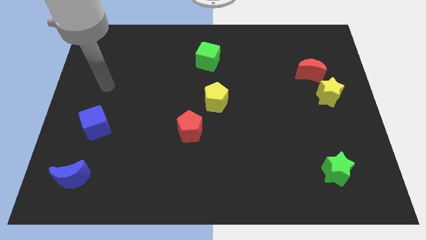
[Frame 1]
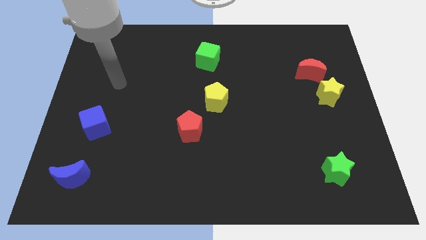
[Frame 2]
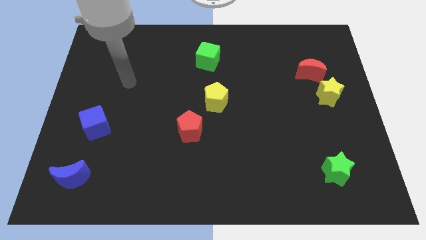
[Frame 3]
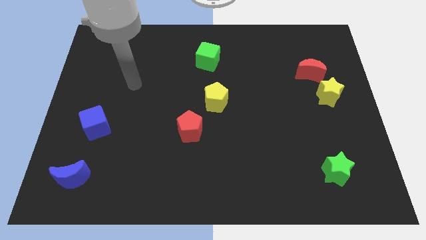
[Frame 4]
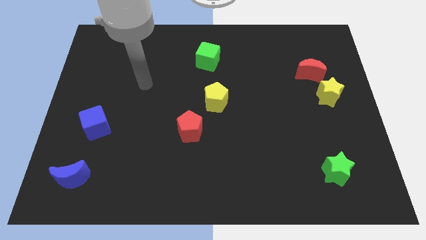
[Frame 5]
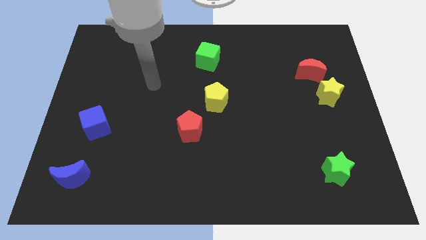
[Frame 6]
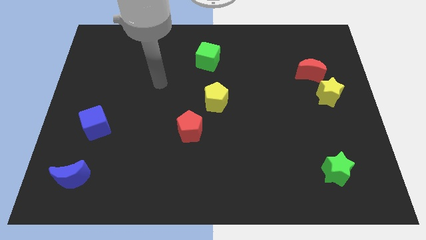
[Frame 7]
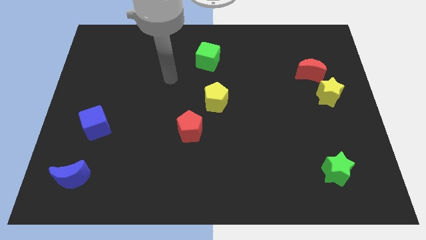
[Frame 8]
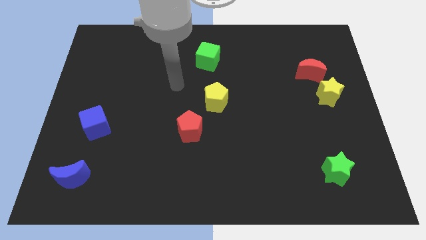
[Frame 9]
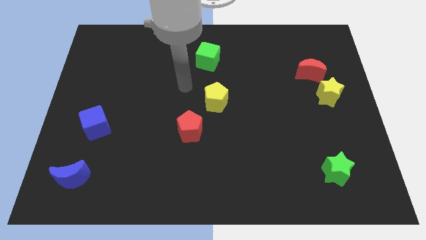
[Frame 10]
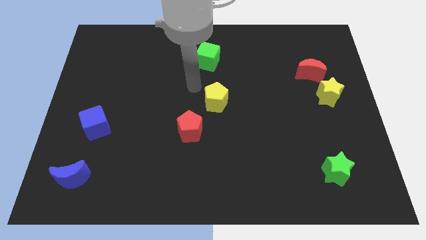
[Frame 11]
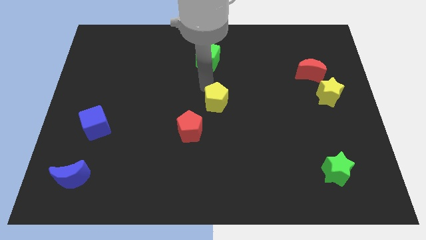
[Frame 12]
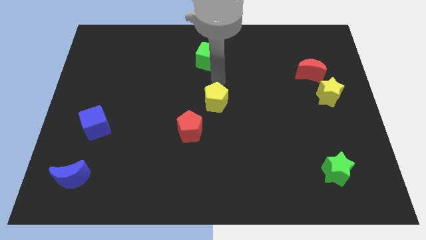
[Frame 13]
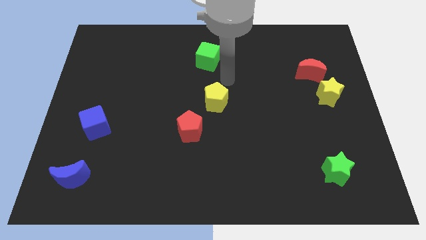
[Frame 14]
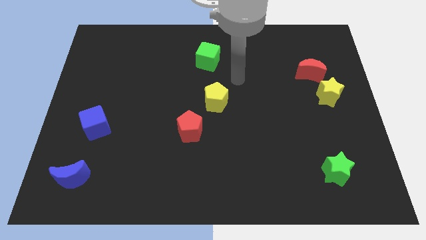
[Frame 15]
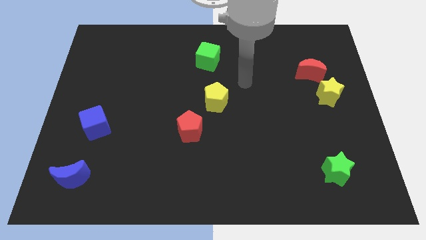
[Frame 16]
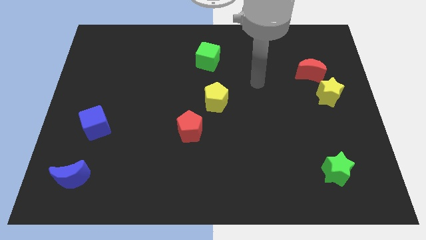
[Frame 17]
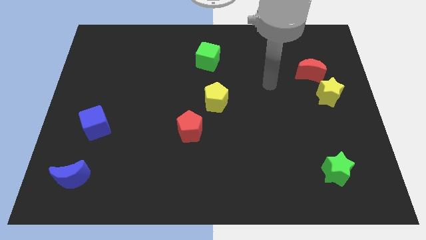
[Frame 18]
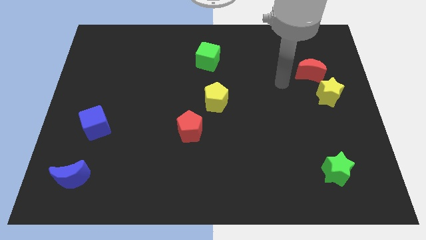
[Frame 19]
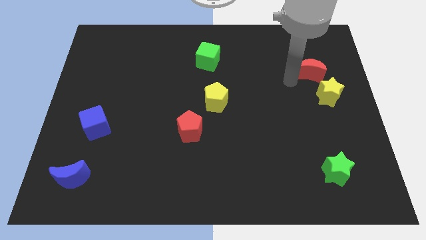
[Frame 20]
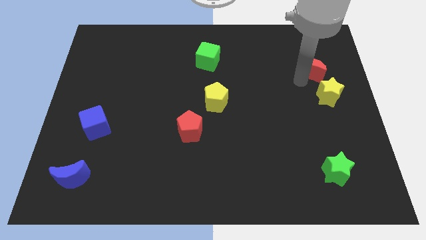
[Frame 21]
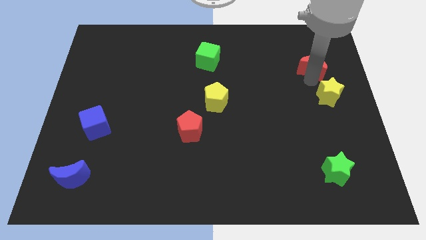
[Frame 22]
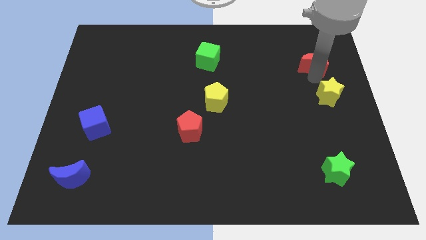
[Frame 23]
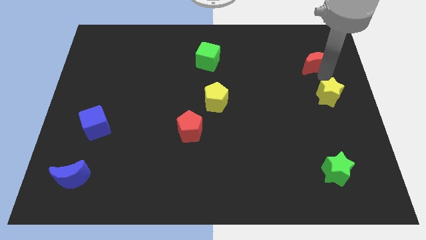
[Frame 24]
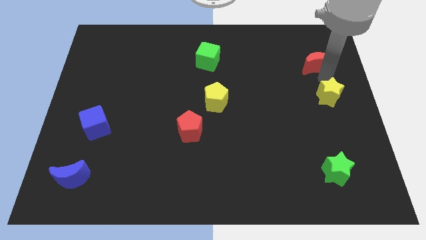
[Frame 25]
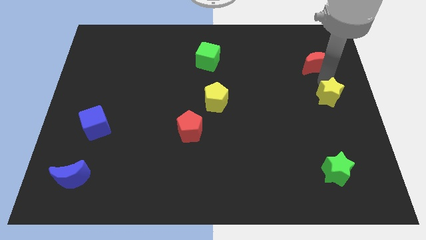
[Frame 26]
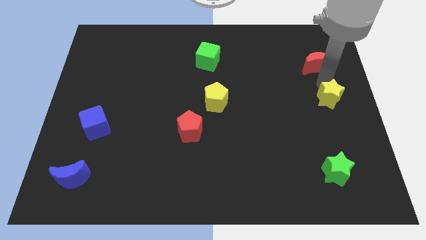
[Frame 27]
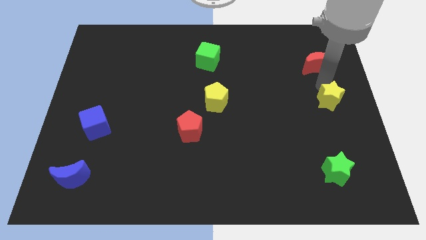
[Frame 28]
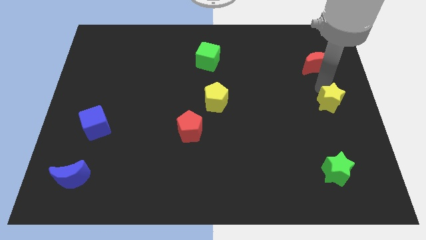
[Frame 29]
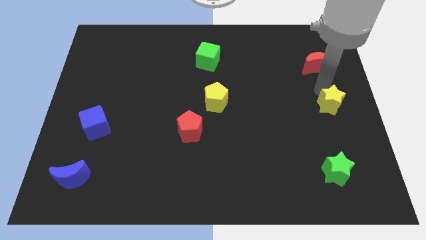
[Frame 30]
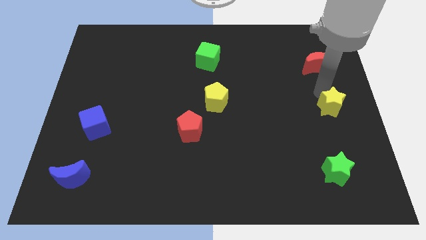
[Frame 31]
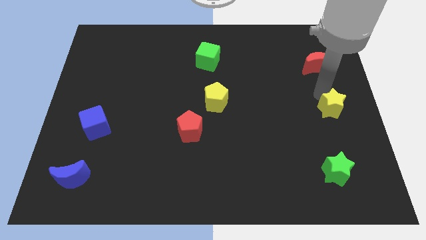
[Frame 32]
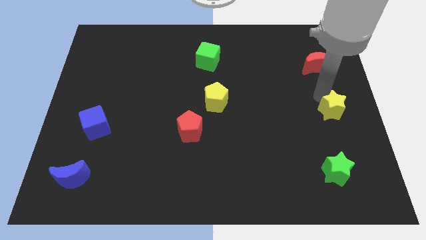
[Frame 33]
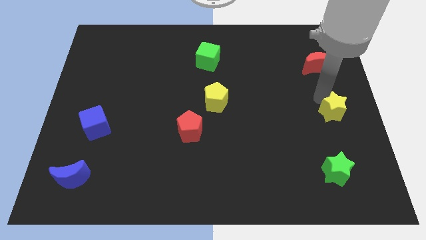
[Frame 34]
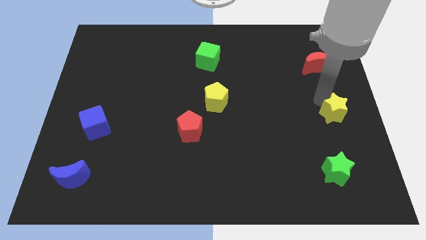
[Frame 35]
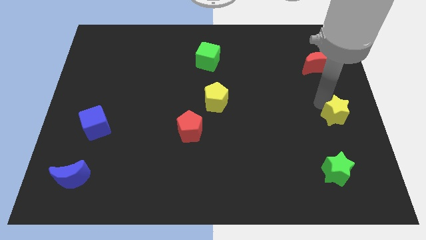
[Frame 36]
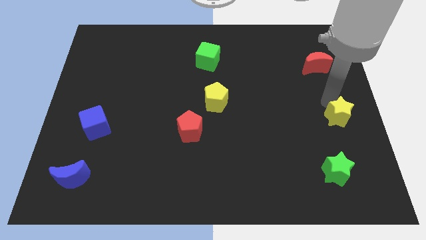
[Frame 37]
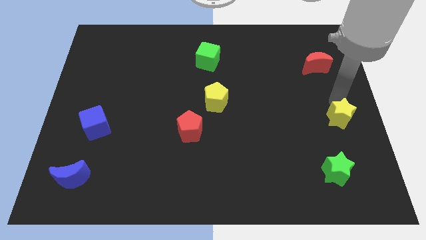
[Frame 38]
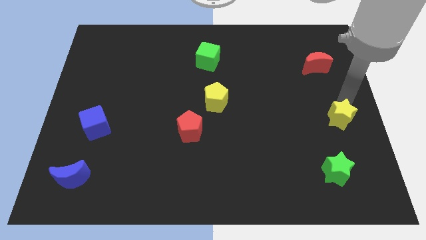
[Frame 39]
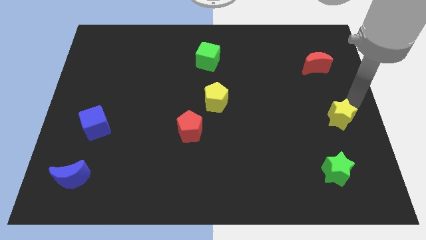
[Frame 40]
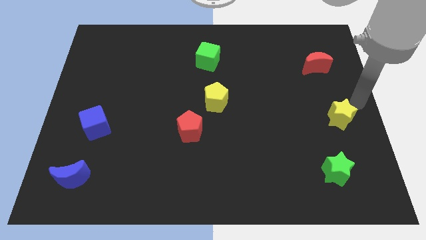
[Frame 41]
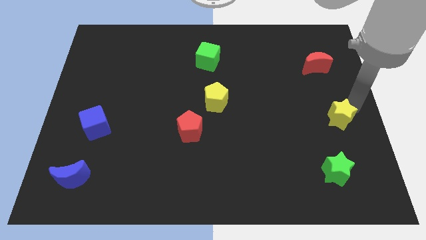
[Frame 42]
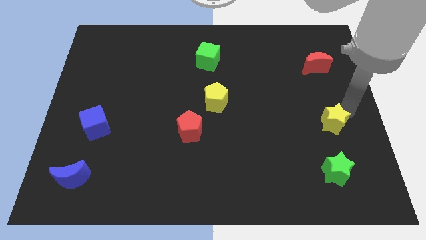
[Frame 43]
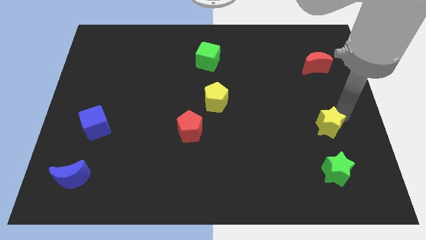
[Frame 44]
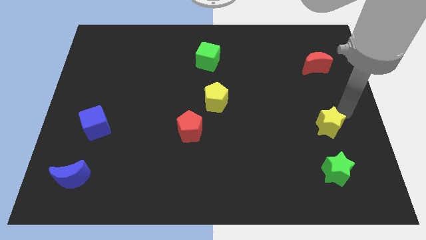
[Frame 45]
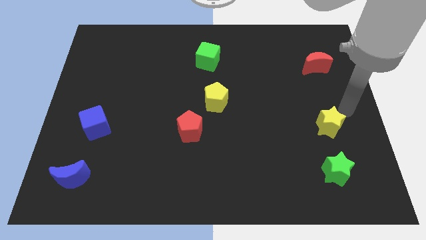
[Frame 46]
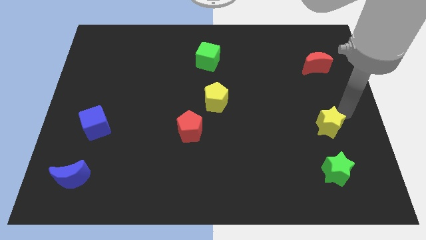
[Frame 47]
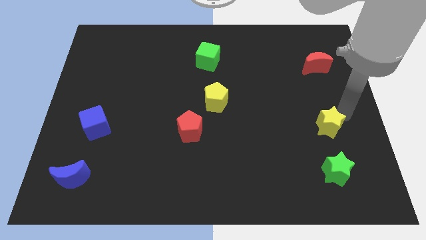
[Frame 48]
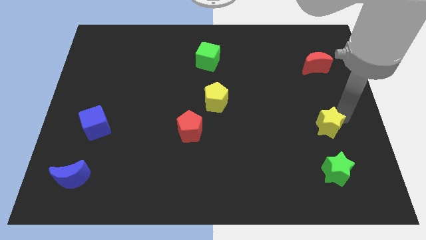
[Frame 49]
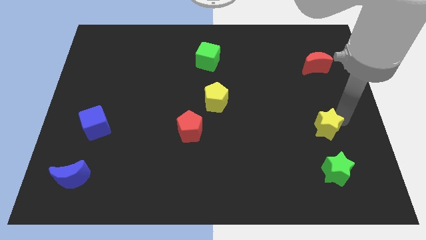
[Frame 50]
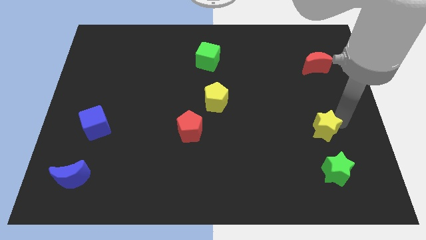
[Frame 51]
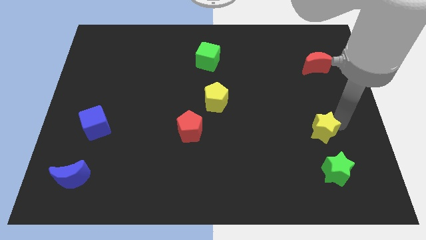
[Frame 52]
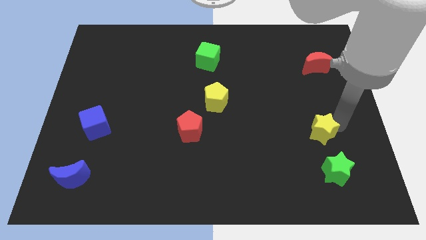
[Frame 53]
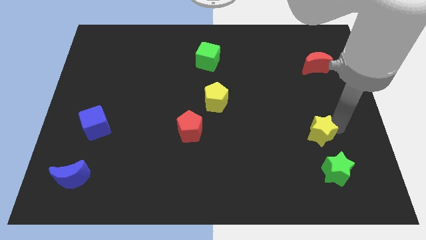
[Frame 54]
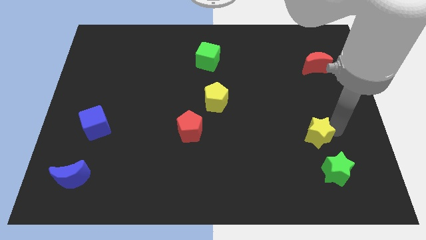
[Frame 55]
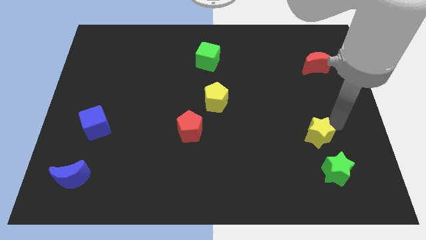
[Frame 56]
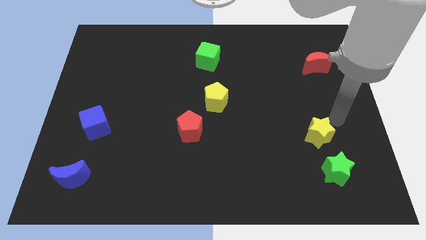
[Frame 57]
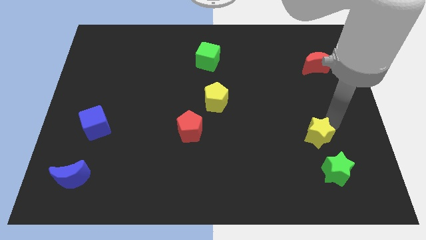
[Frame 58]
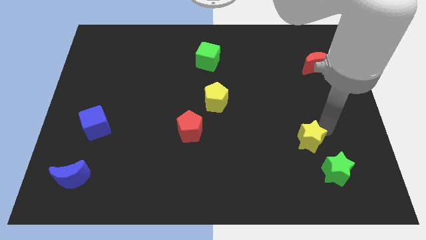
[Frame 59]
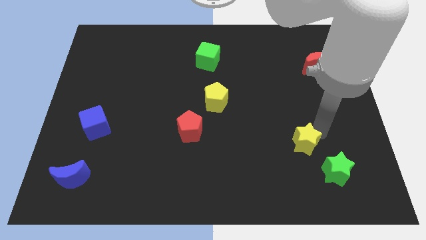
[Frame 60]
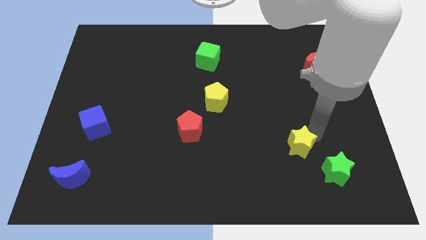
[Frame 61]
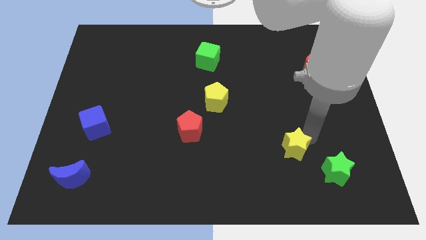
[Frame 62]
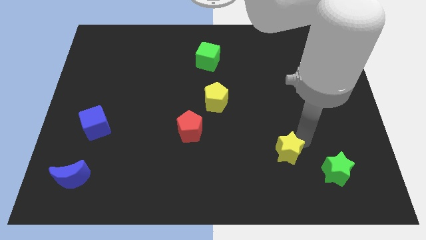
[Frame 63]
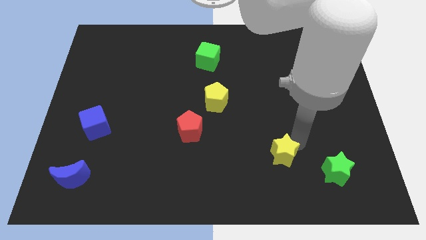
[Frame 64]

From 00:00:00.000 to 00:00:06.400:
slide the yellow star diagonally down and left

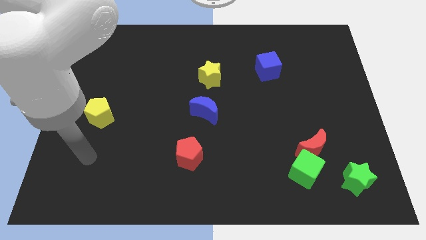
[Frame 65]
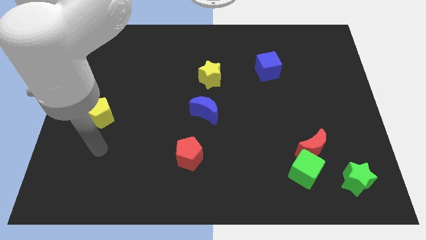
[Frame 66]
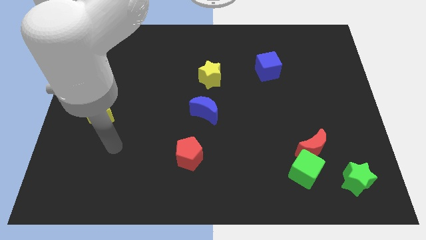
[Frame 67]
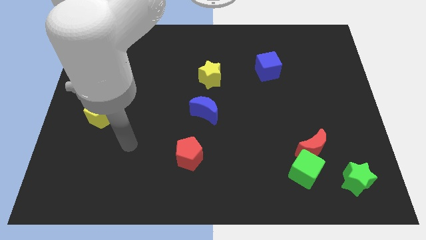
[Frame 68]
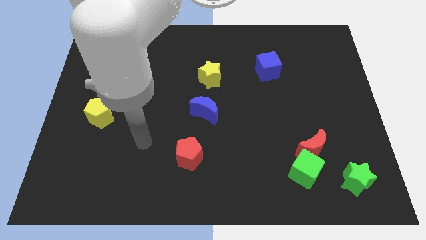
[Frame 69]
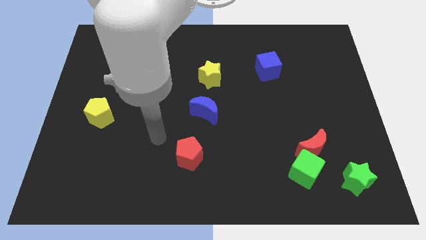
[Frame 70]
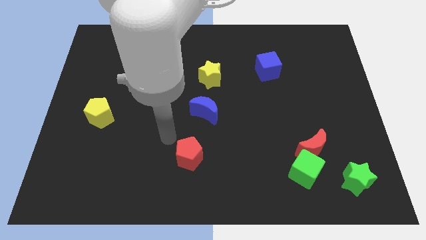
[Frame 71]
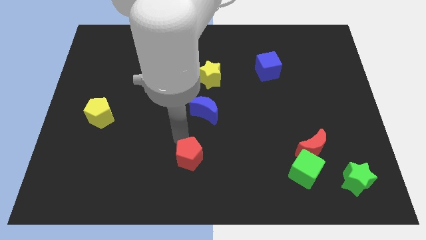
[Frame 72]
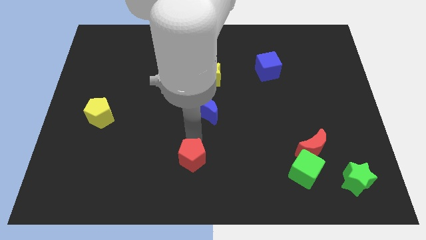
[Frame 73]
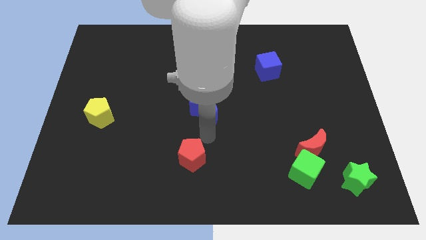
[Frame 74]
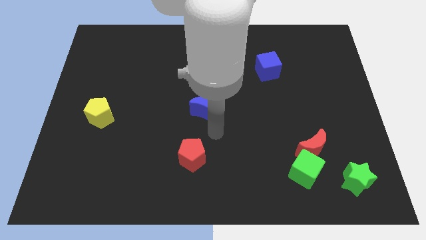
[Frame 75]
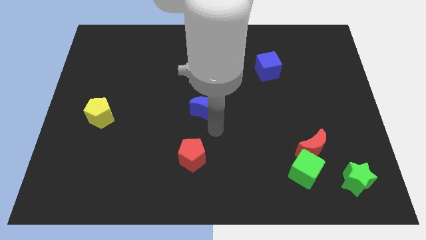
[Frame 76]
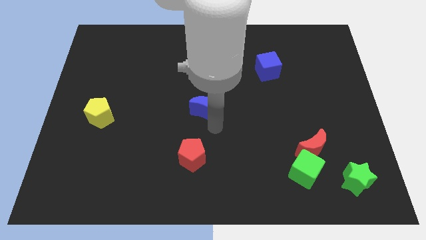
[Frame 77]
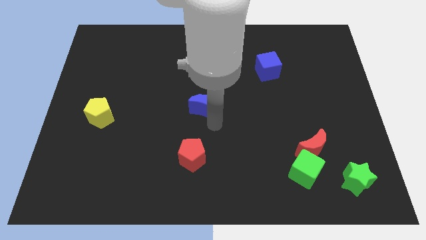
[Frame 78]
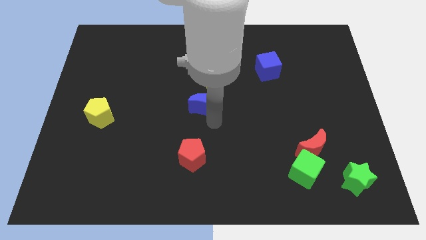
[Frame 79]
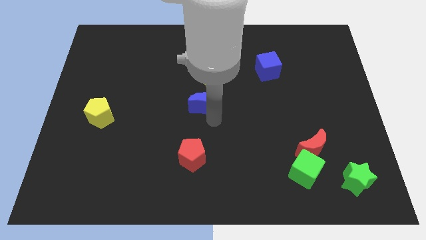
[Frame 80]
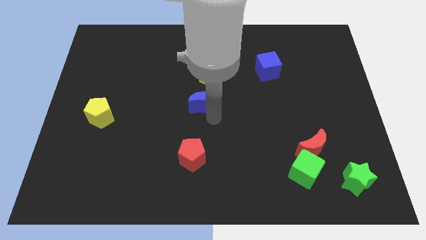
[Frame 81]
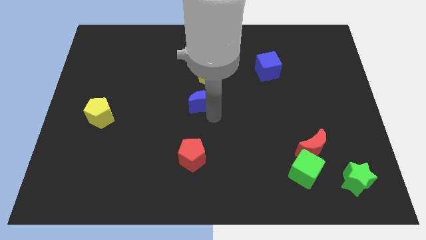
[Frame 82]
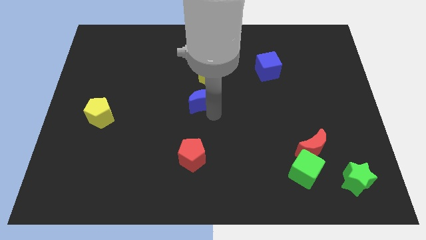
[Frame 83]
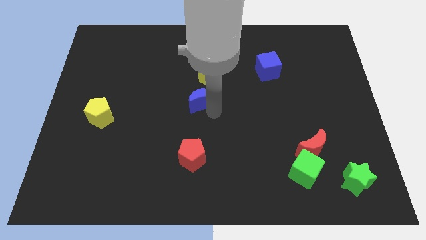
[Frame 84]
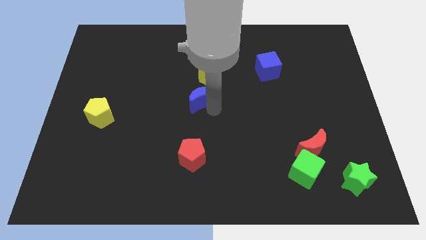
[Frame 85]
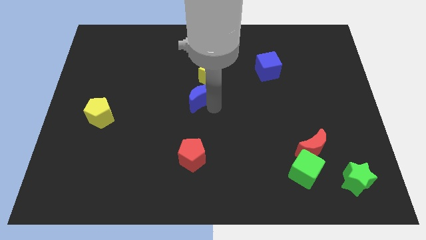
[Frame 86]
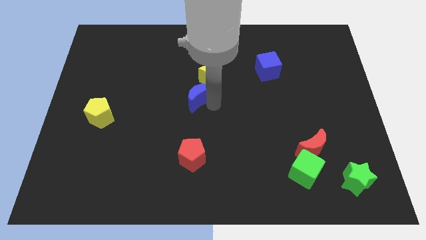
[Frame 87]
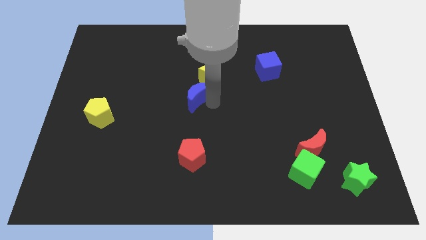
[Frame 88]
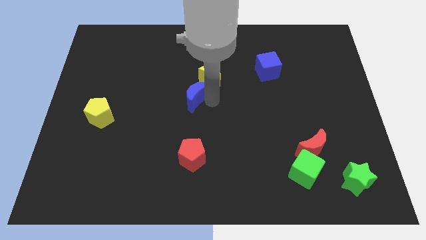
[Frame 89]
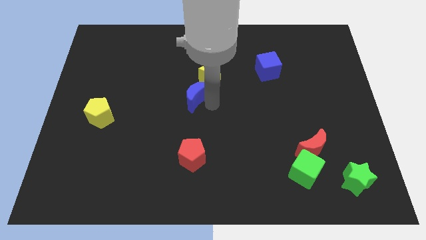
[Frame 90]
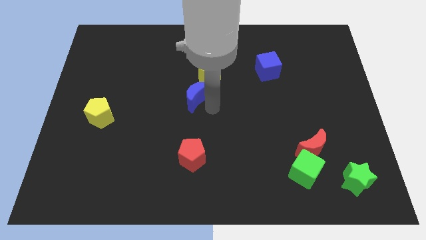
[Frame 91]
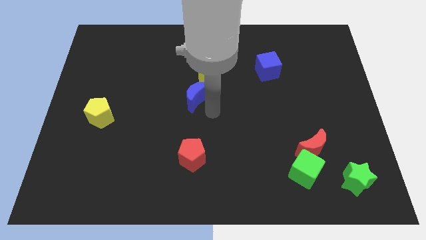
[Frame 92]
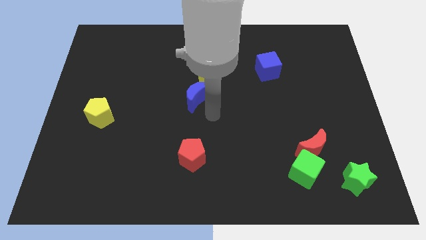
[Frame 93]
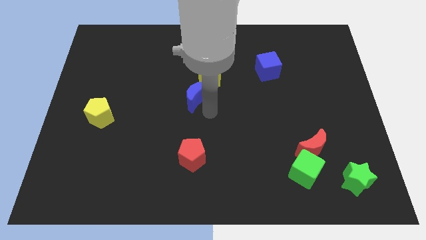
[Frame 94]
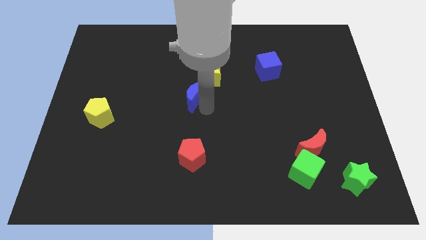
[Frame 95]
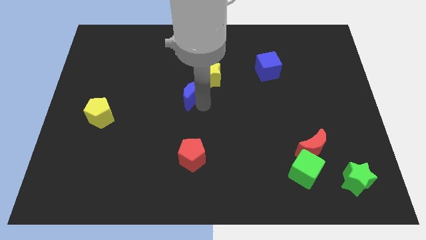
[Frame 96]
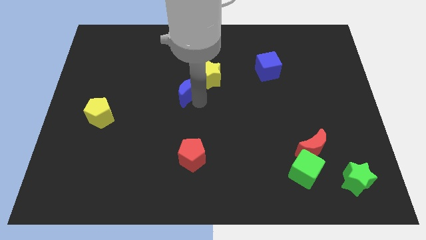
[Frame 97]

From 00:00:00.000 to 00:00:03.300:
move the blue moon upwards and left diagonally slightly
